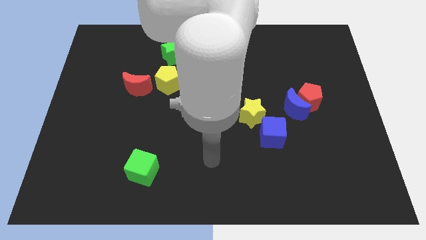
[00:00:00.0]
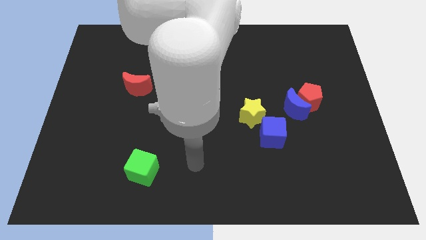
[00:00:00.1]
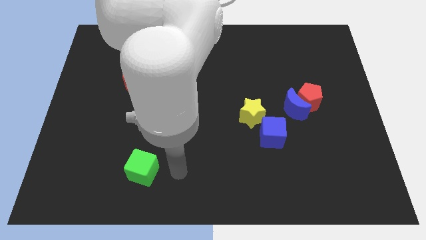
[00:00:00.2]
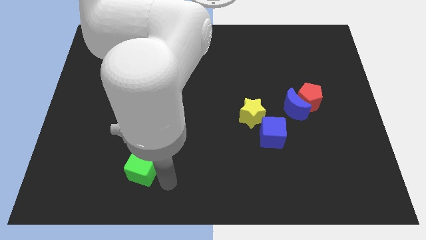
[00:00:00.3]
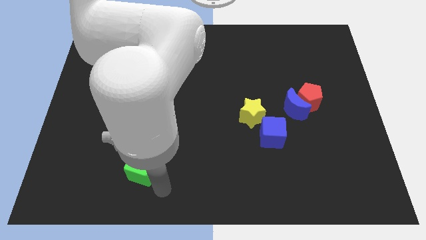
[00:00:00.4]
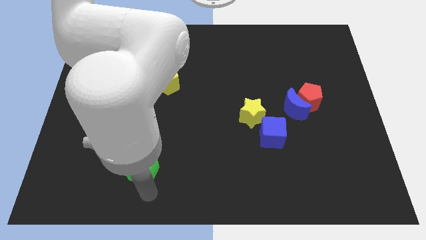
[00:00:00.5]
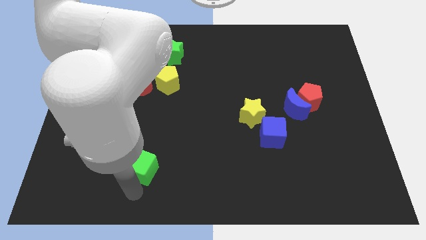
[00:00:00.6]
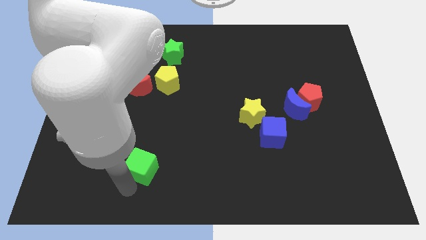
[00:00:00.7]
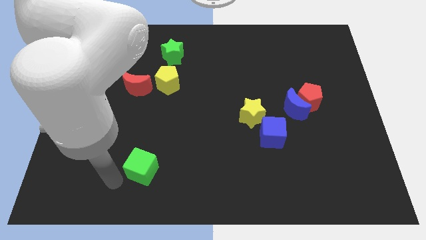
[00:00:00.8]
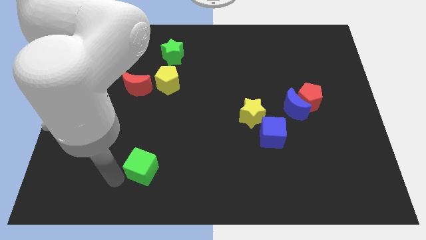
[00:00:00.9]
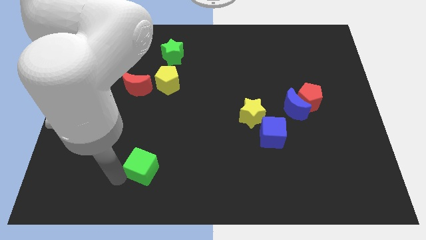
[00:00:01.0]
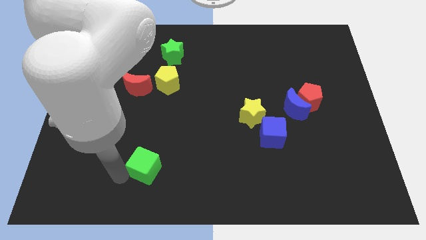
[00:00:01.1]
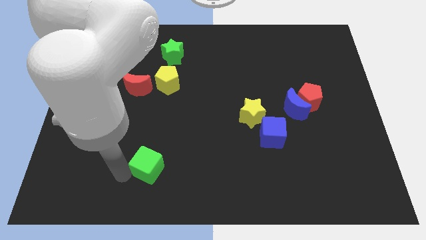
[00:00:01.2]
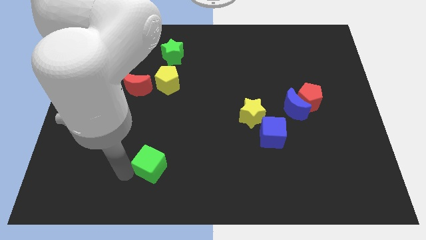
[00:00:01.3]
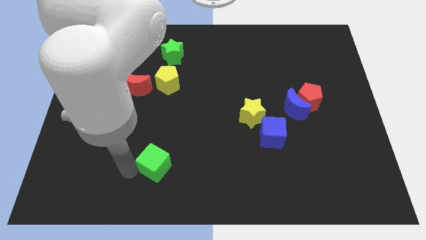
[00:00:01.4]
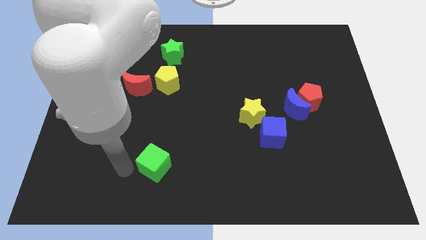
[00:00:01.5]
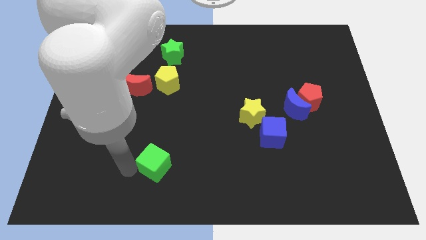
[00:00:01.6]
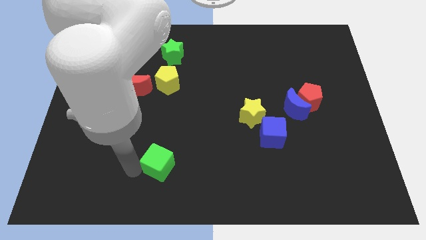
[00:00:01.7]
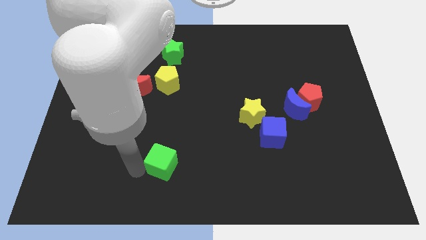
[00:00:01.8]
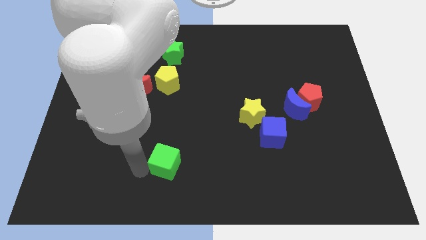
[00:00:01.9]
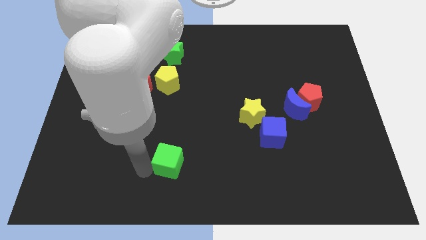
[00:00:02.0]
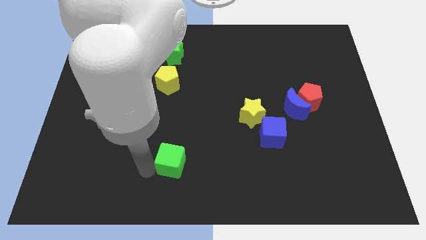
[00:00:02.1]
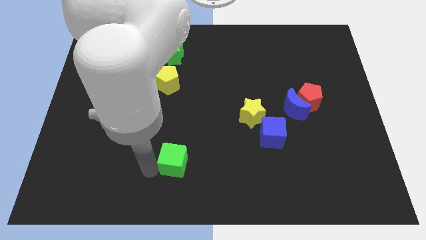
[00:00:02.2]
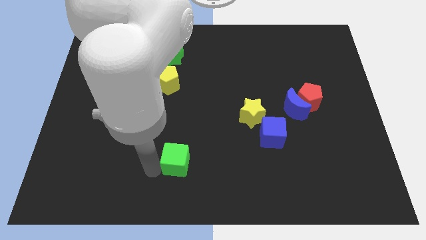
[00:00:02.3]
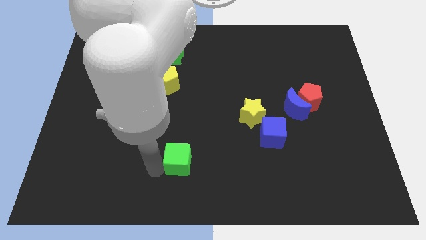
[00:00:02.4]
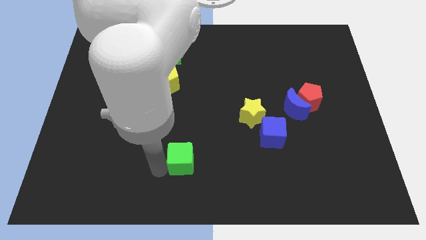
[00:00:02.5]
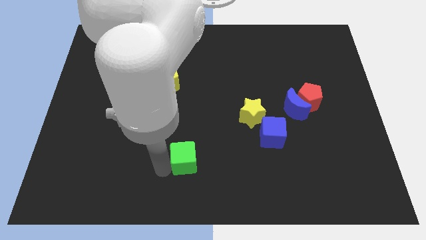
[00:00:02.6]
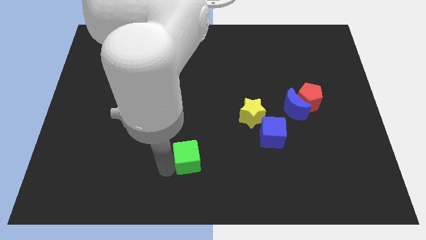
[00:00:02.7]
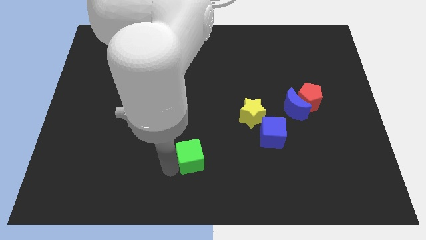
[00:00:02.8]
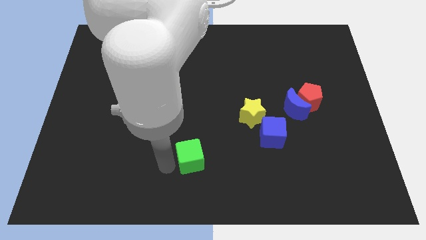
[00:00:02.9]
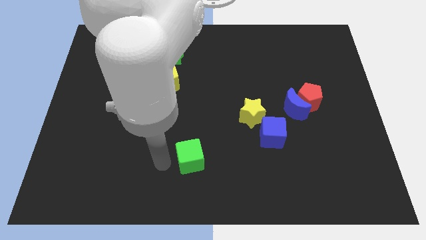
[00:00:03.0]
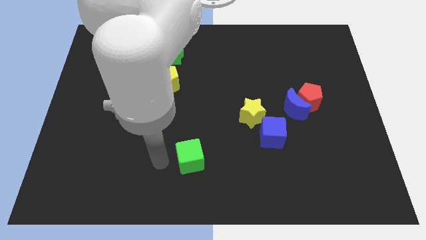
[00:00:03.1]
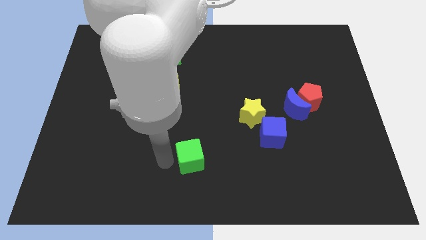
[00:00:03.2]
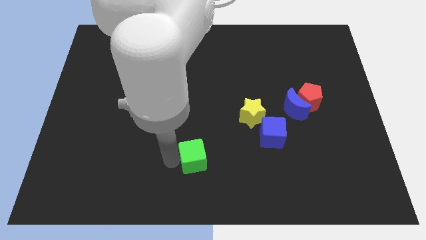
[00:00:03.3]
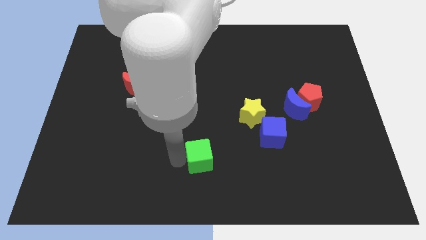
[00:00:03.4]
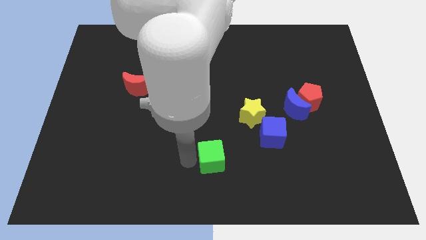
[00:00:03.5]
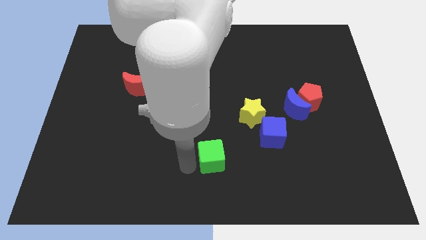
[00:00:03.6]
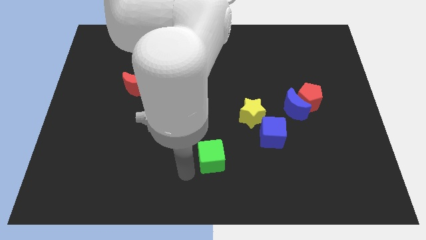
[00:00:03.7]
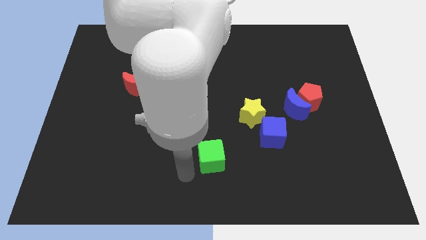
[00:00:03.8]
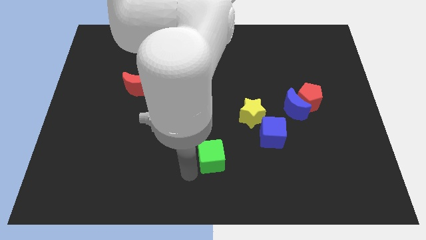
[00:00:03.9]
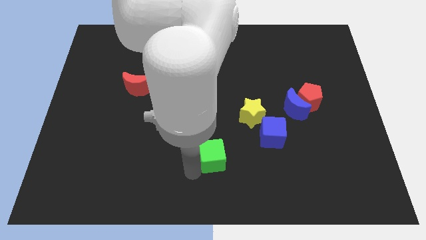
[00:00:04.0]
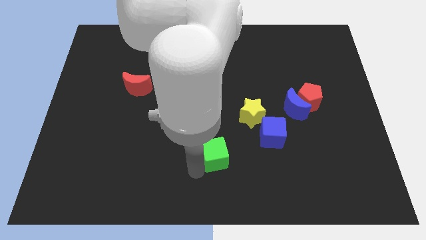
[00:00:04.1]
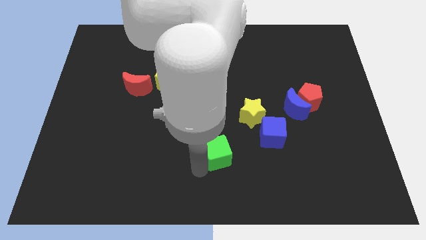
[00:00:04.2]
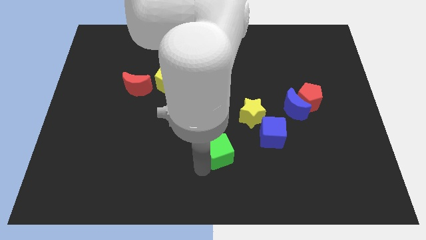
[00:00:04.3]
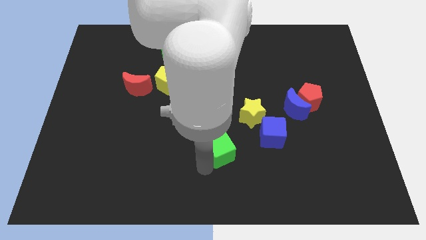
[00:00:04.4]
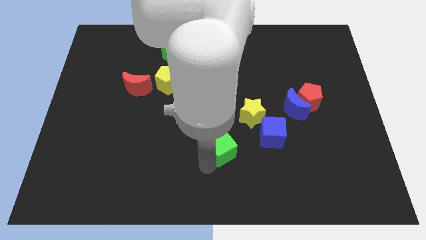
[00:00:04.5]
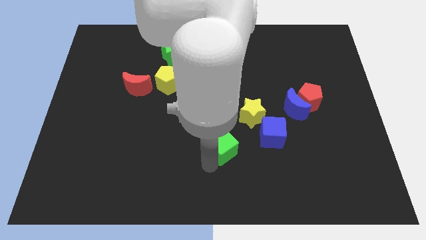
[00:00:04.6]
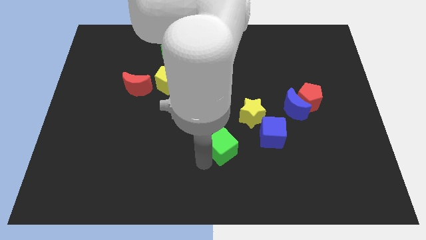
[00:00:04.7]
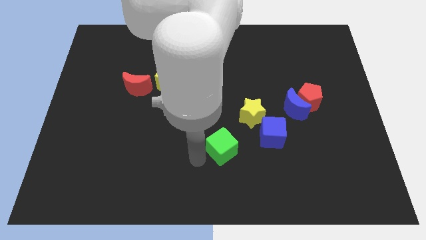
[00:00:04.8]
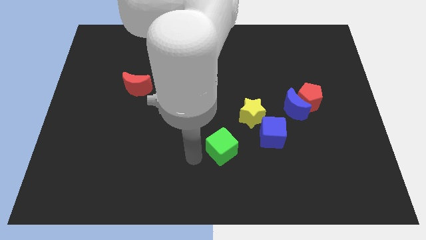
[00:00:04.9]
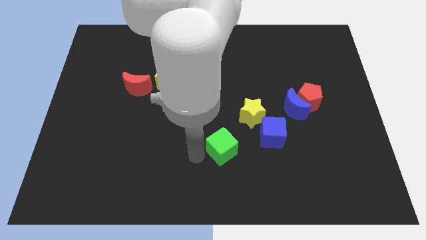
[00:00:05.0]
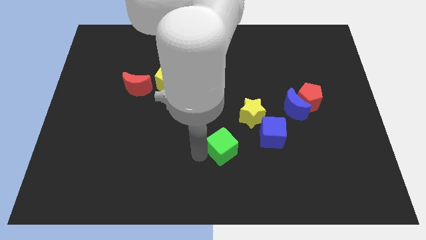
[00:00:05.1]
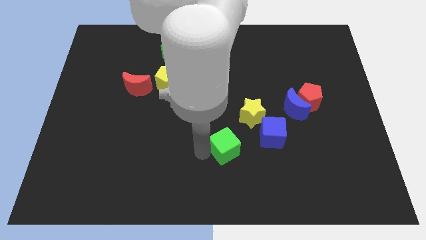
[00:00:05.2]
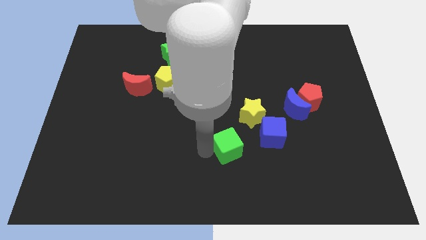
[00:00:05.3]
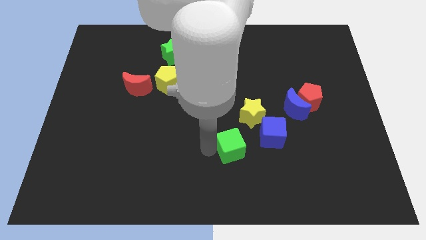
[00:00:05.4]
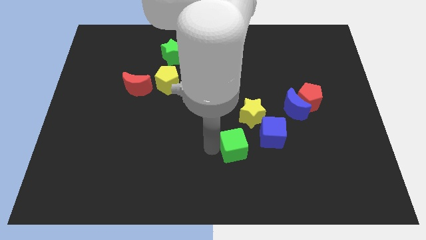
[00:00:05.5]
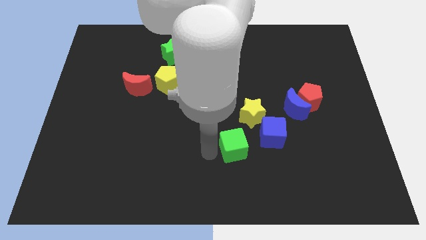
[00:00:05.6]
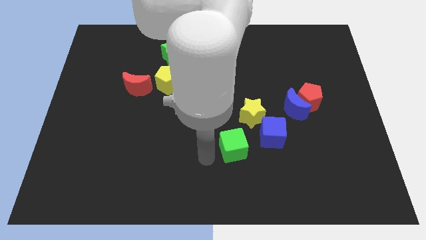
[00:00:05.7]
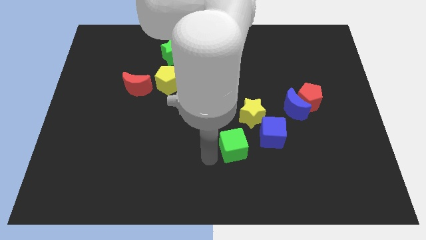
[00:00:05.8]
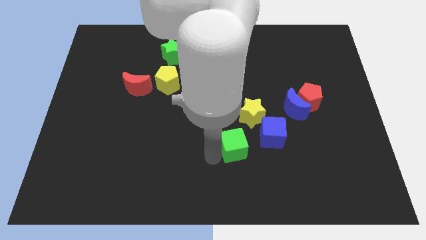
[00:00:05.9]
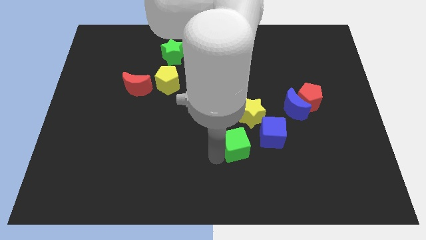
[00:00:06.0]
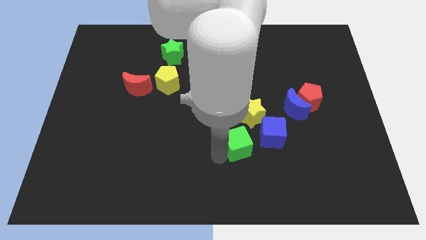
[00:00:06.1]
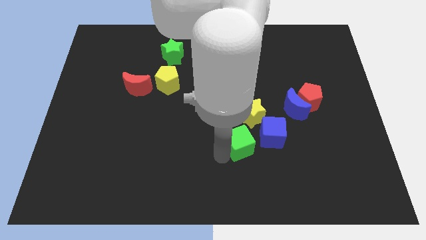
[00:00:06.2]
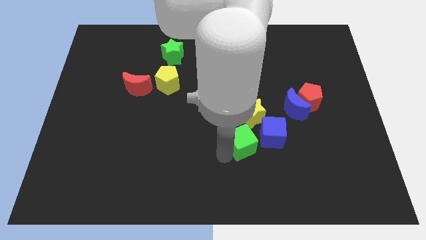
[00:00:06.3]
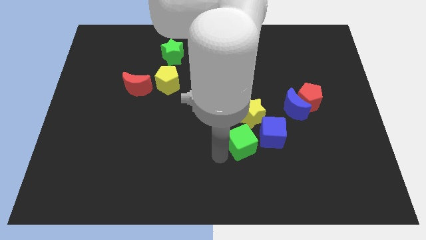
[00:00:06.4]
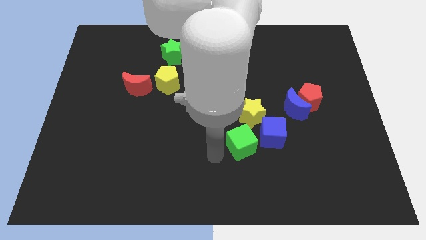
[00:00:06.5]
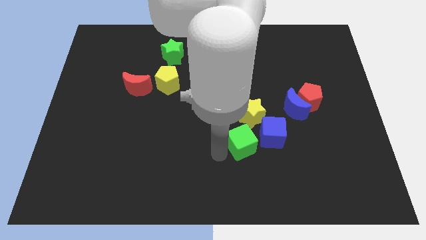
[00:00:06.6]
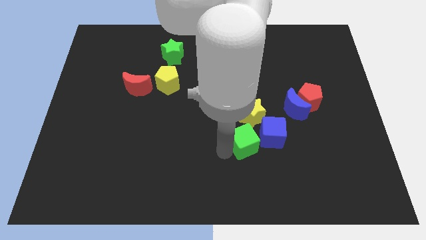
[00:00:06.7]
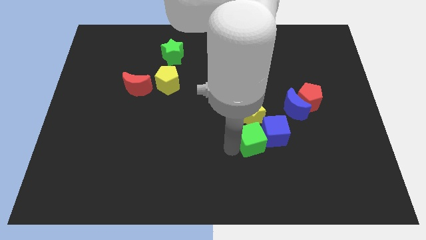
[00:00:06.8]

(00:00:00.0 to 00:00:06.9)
slide the green cube next to the blue cube
